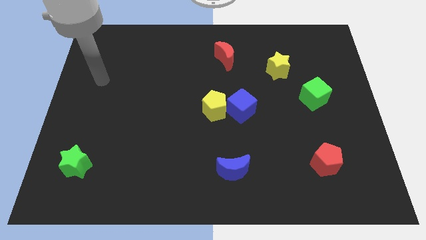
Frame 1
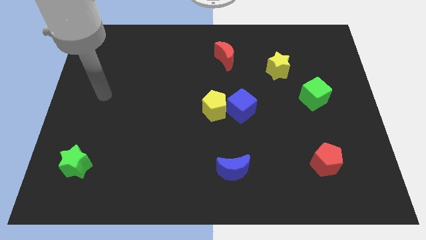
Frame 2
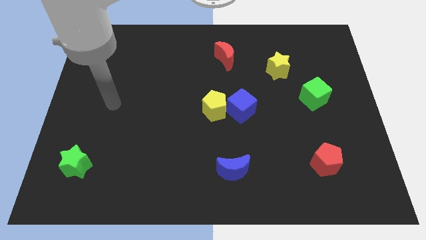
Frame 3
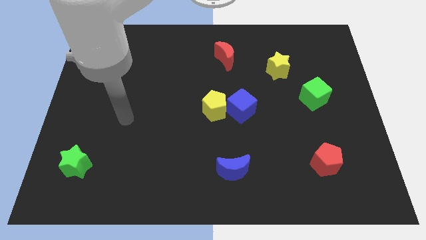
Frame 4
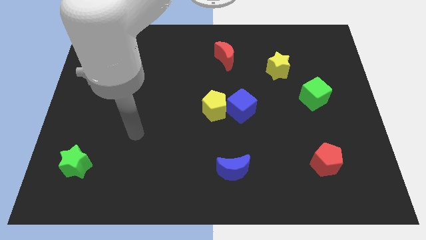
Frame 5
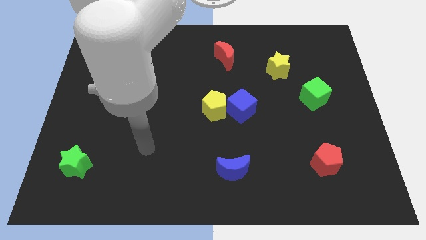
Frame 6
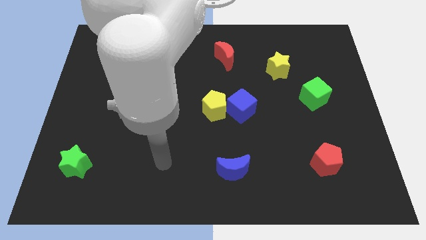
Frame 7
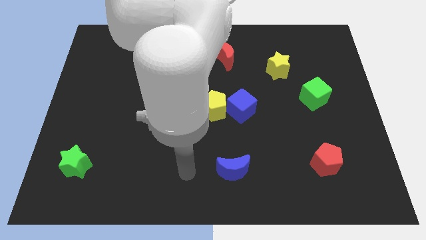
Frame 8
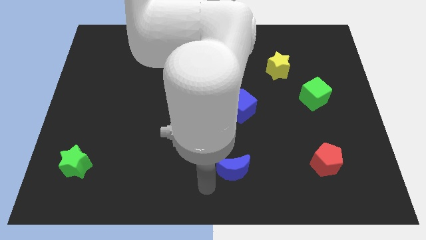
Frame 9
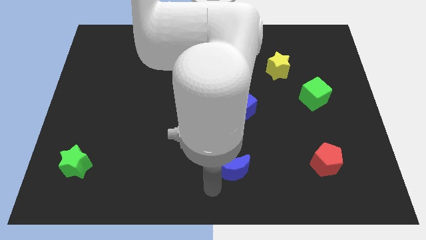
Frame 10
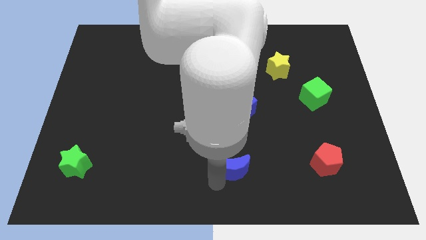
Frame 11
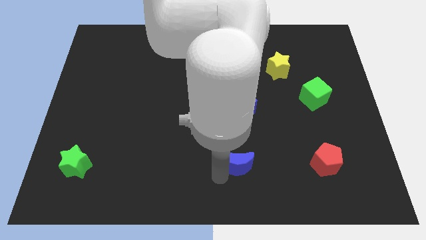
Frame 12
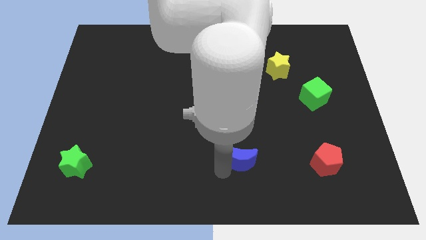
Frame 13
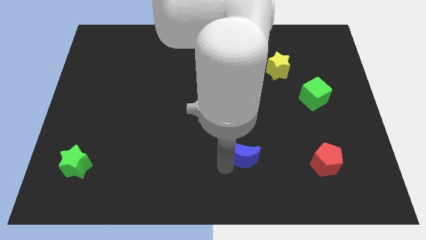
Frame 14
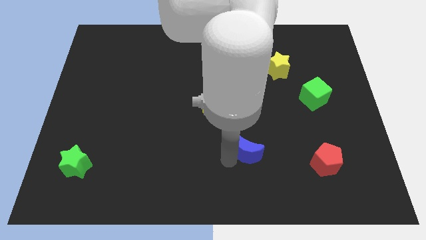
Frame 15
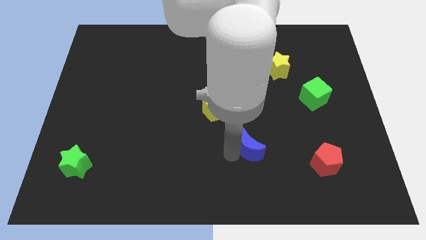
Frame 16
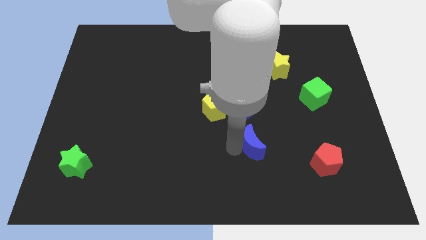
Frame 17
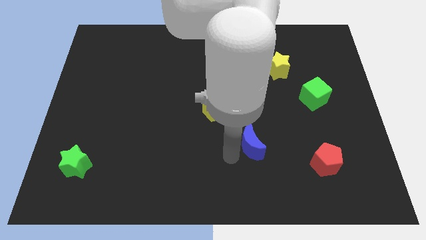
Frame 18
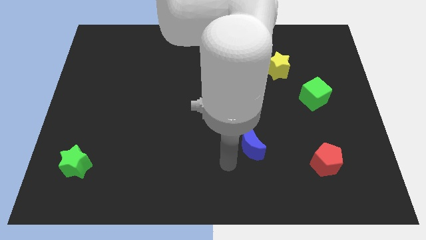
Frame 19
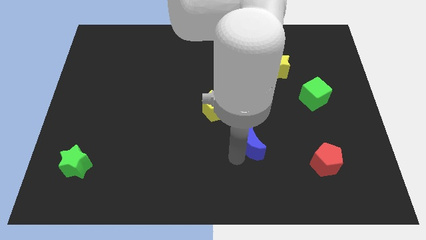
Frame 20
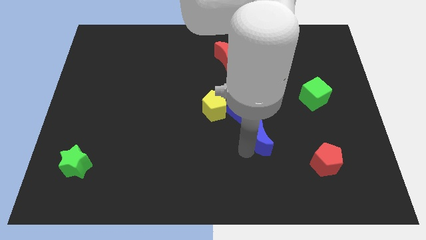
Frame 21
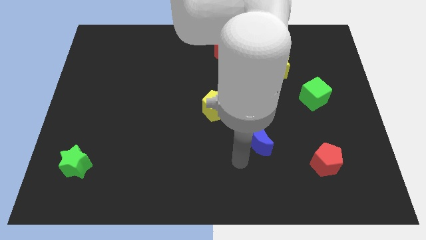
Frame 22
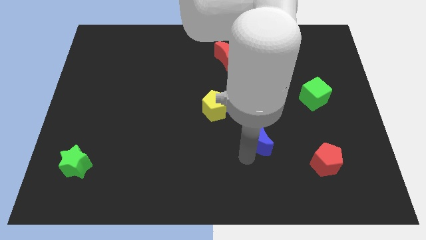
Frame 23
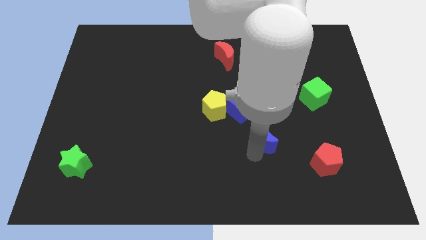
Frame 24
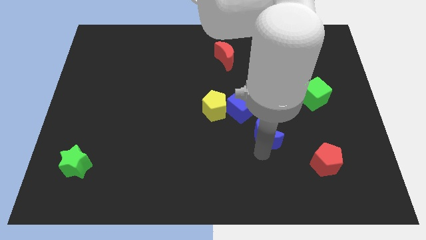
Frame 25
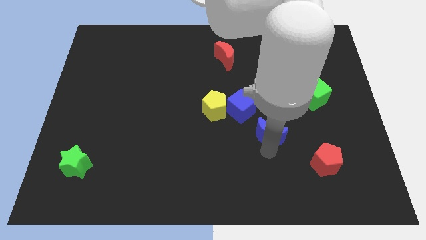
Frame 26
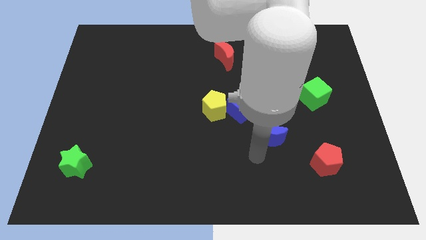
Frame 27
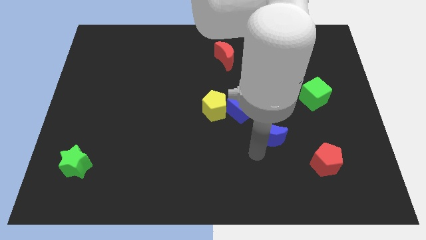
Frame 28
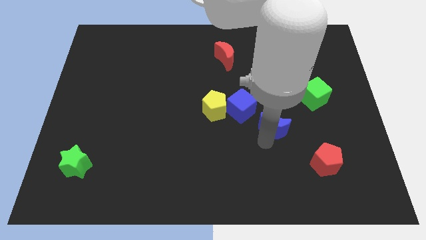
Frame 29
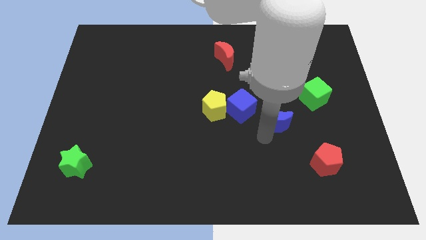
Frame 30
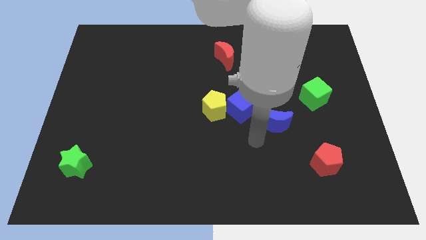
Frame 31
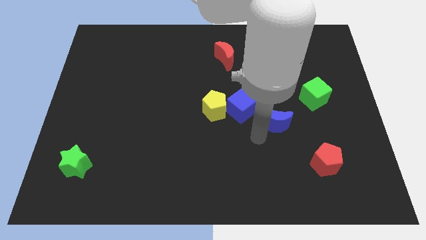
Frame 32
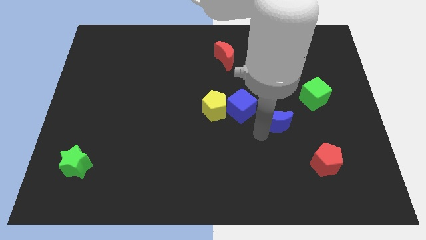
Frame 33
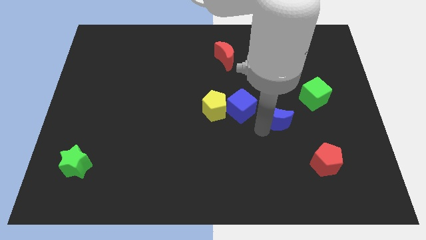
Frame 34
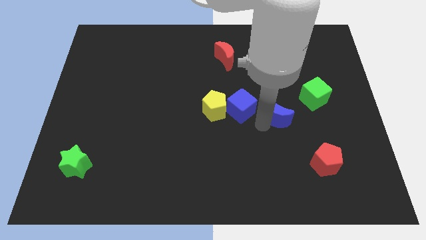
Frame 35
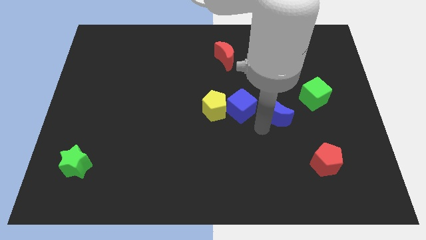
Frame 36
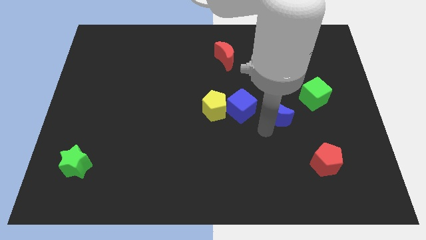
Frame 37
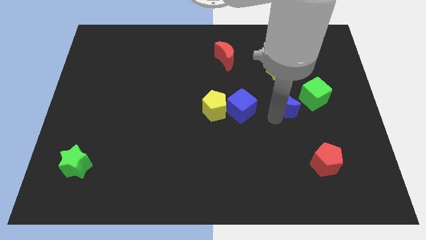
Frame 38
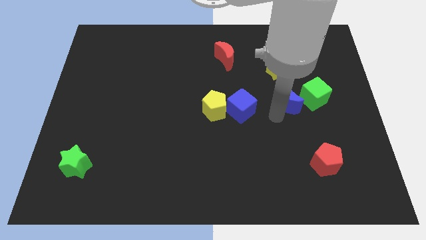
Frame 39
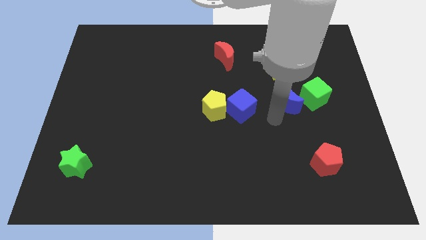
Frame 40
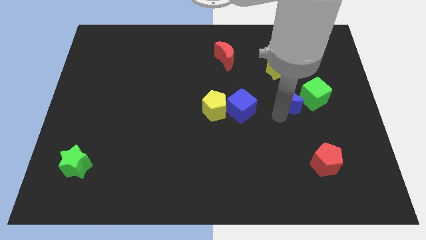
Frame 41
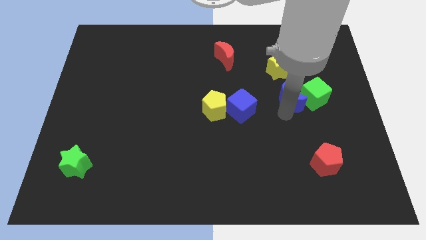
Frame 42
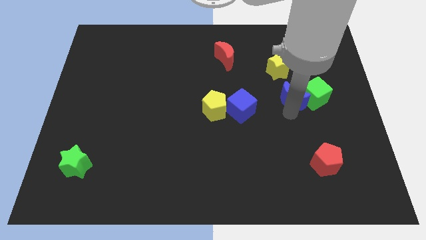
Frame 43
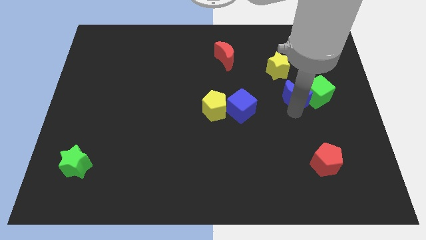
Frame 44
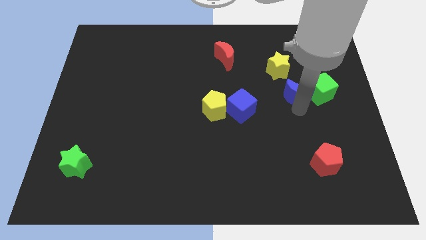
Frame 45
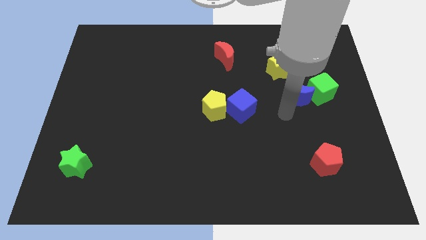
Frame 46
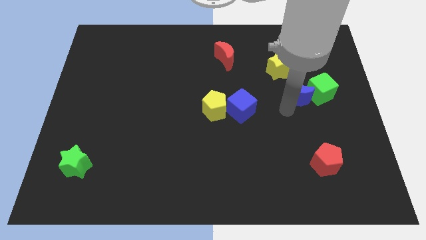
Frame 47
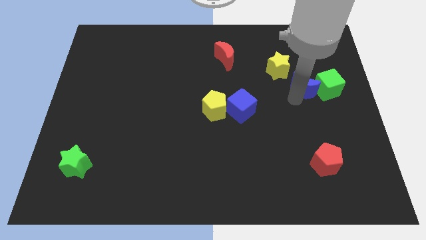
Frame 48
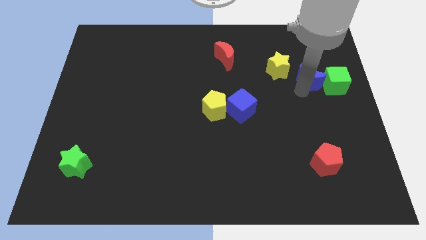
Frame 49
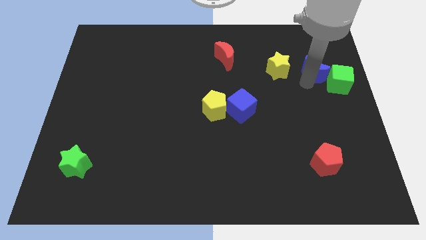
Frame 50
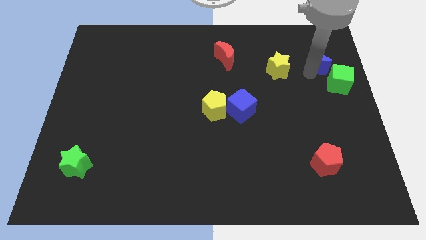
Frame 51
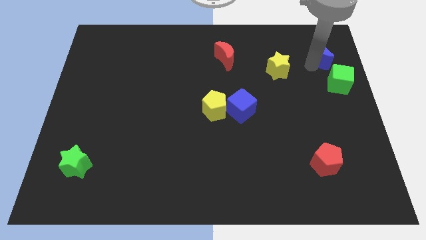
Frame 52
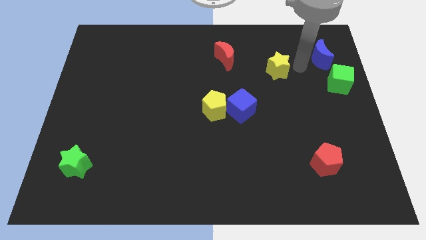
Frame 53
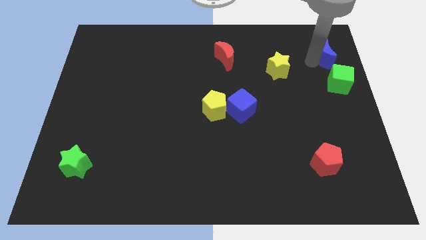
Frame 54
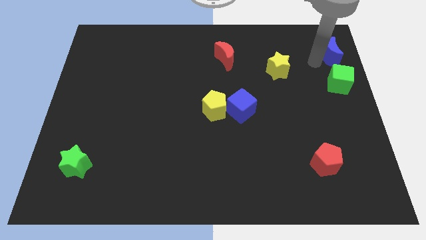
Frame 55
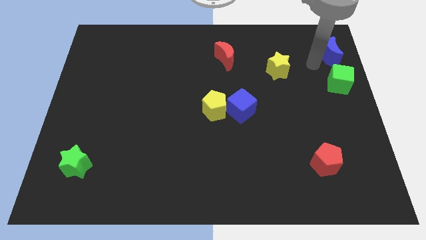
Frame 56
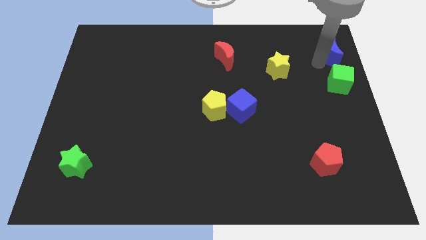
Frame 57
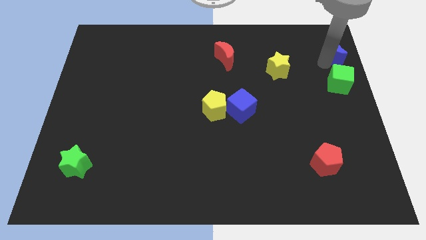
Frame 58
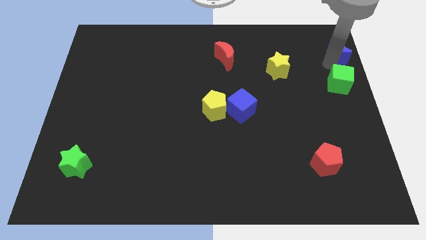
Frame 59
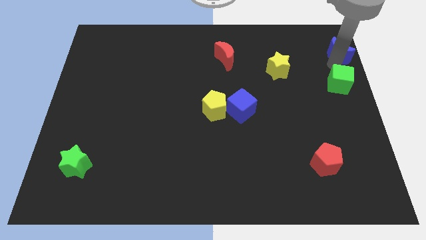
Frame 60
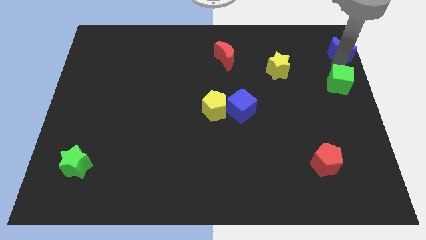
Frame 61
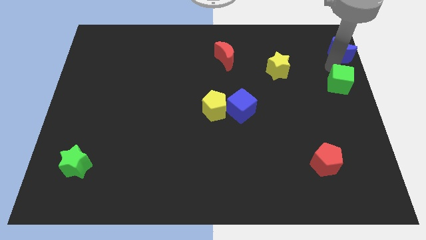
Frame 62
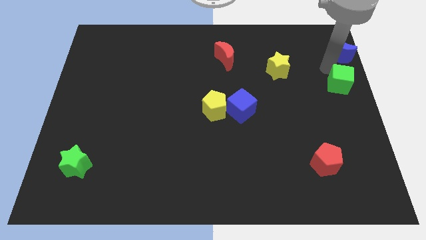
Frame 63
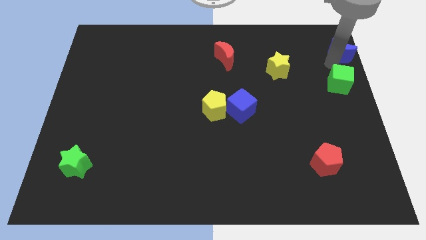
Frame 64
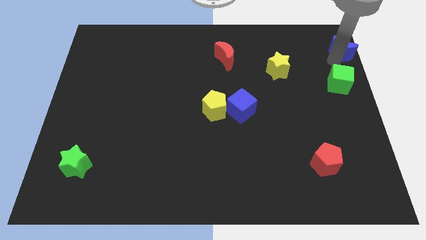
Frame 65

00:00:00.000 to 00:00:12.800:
move the blue moon to the top right

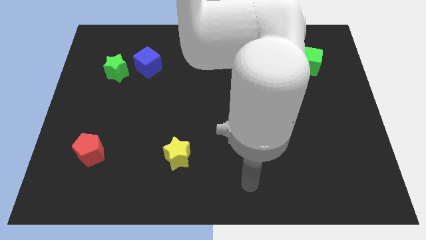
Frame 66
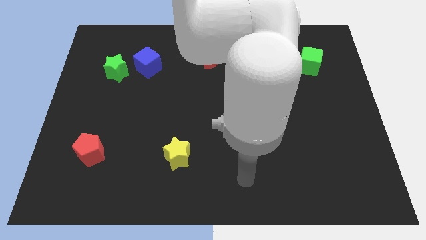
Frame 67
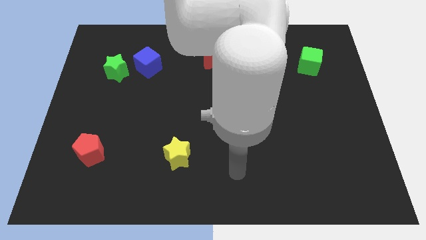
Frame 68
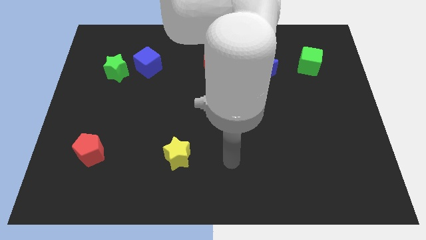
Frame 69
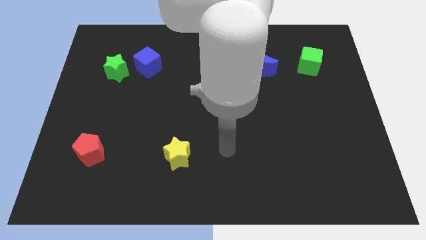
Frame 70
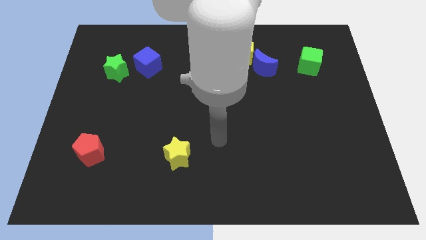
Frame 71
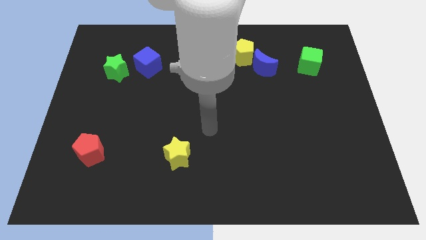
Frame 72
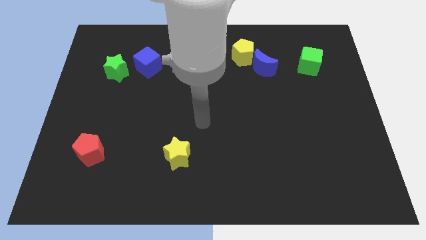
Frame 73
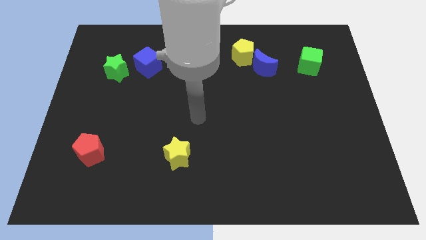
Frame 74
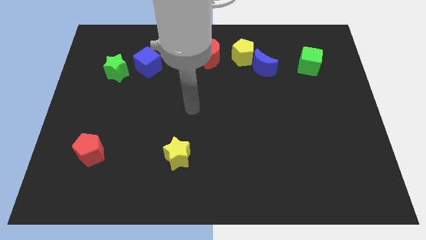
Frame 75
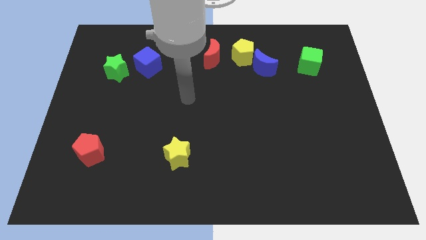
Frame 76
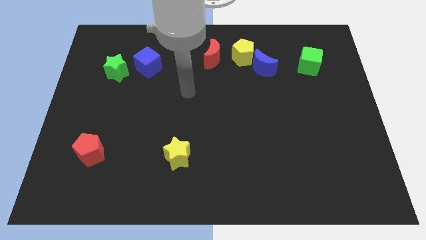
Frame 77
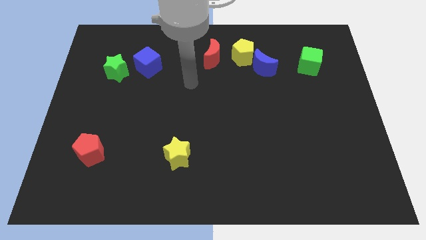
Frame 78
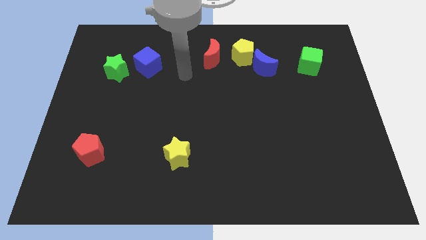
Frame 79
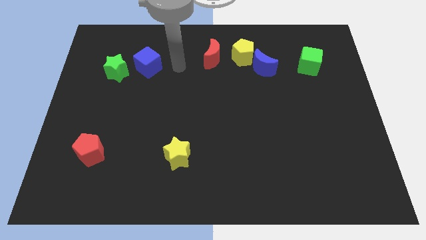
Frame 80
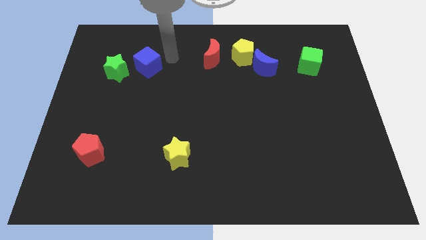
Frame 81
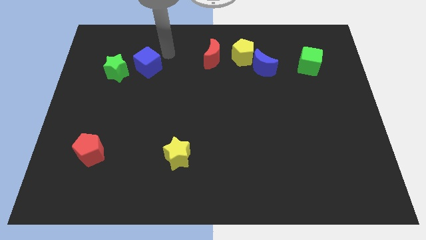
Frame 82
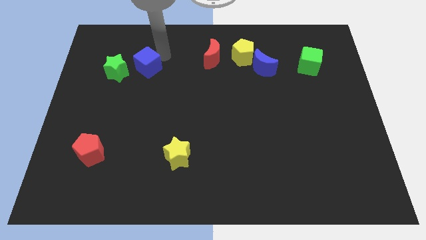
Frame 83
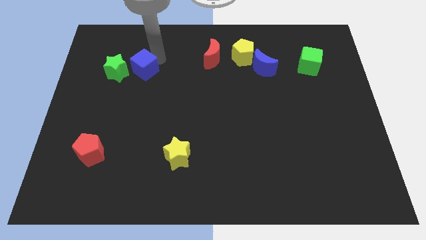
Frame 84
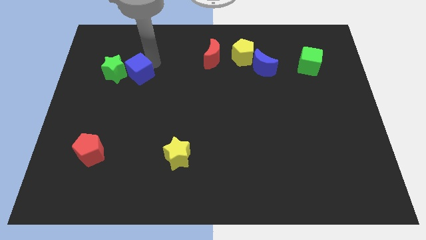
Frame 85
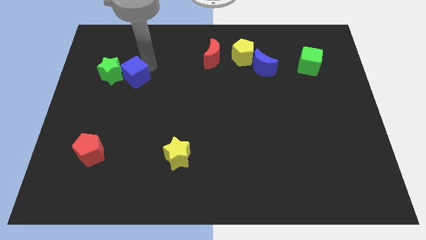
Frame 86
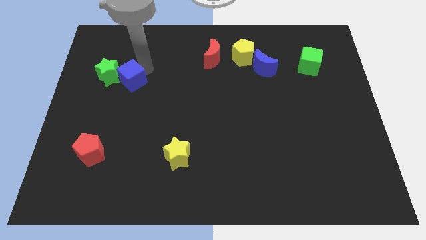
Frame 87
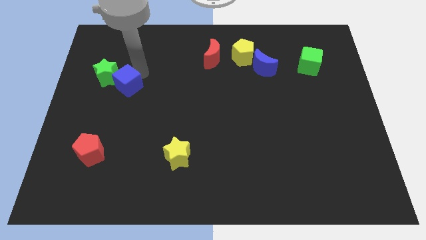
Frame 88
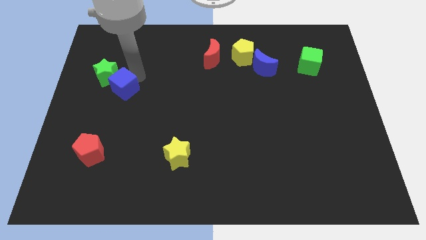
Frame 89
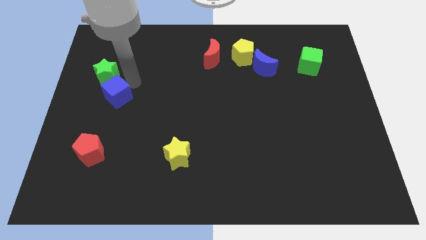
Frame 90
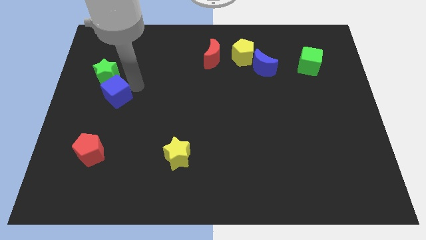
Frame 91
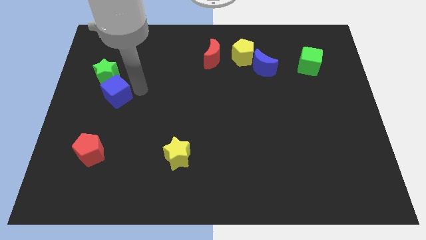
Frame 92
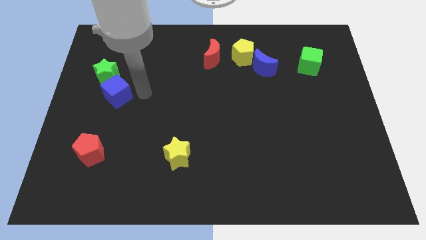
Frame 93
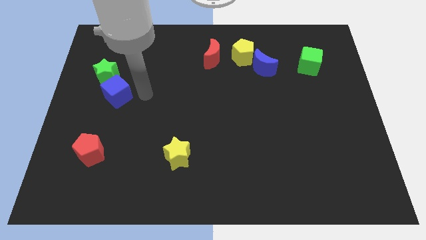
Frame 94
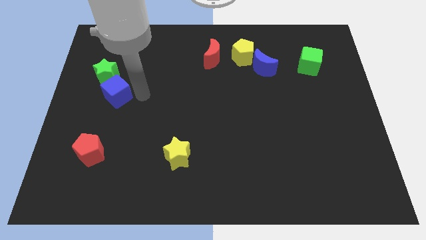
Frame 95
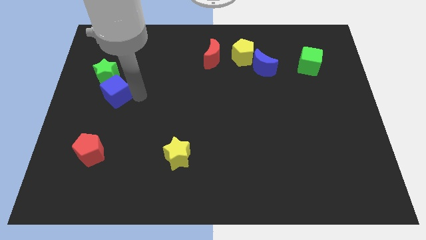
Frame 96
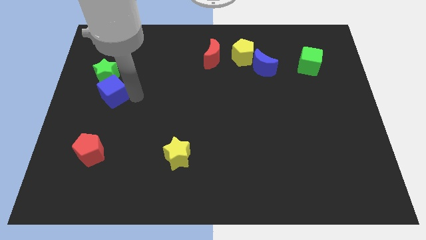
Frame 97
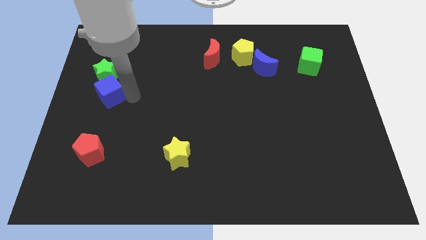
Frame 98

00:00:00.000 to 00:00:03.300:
move the blue cube to the left side of the board
